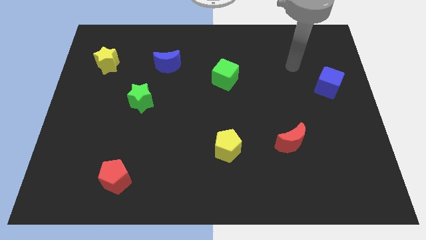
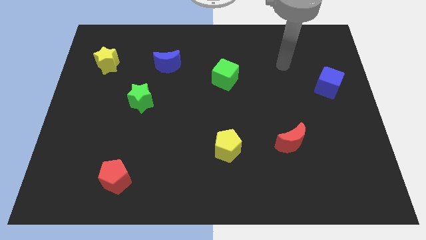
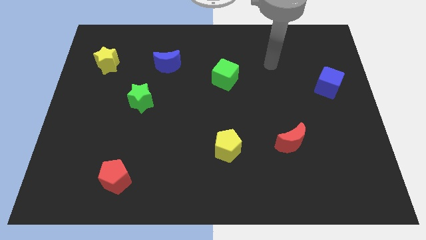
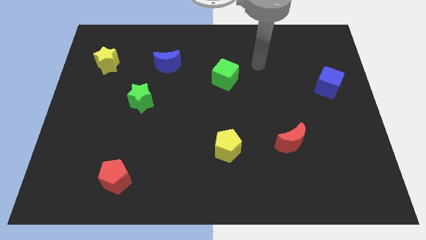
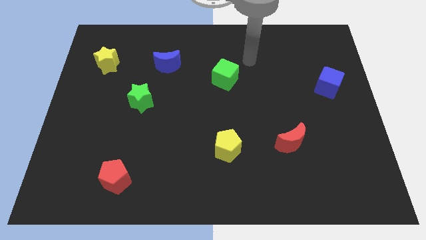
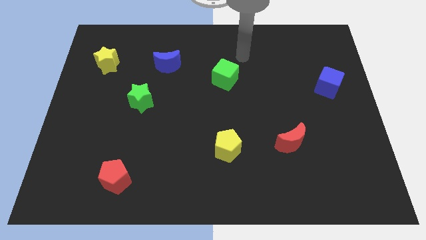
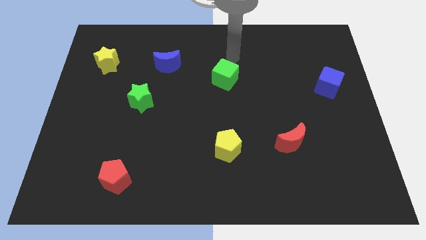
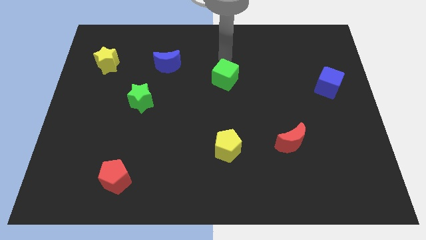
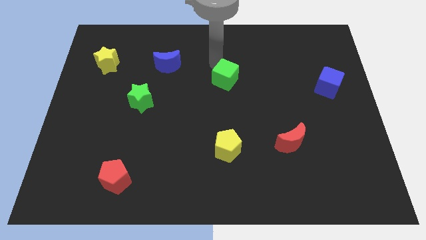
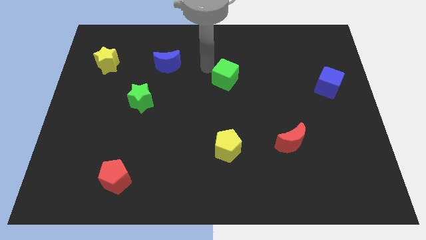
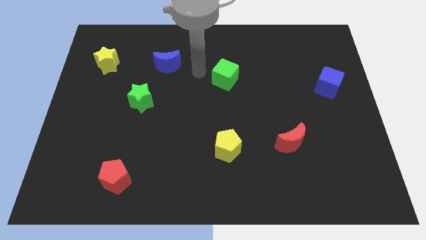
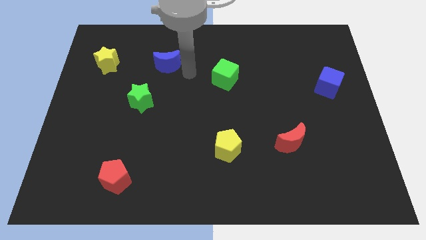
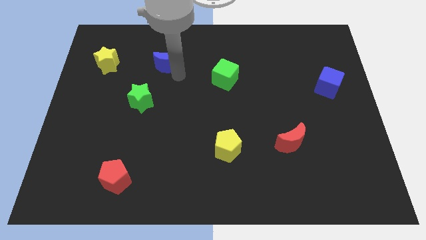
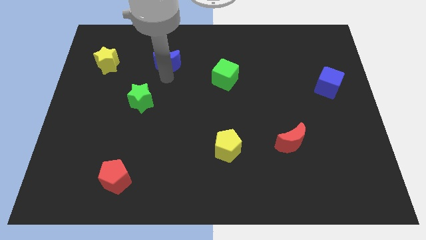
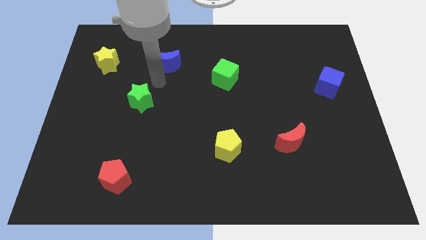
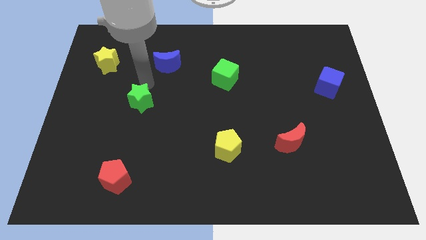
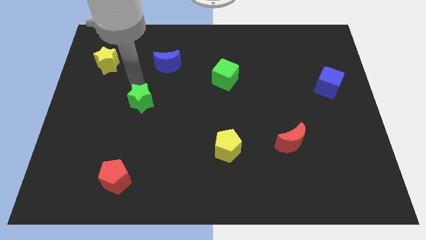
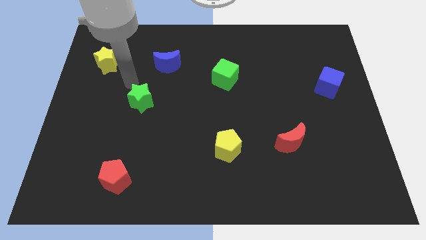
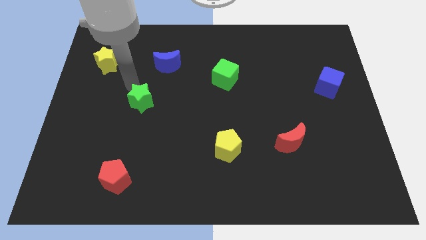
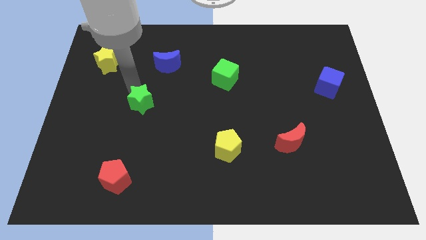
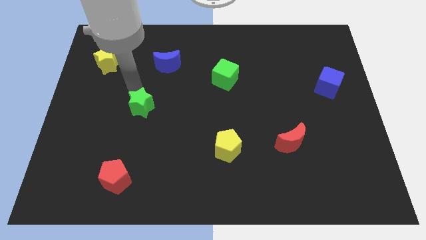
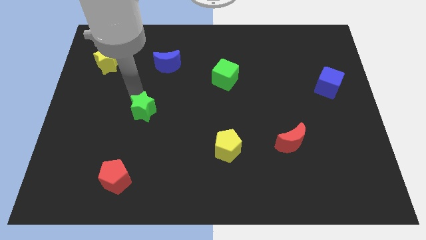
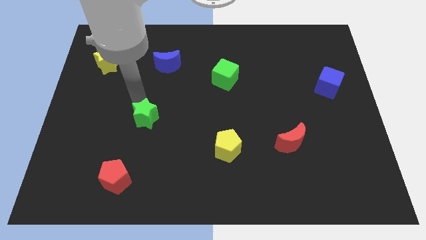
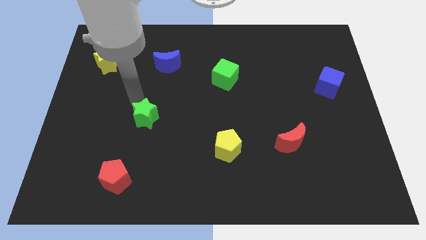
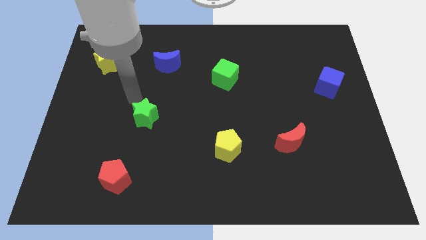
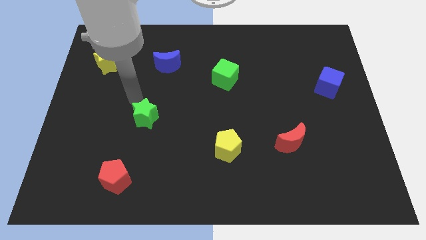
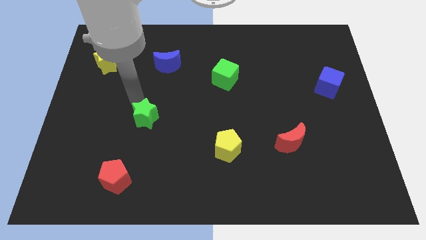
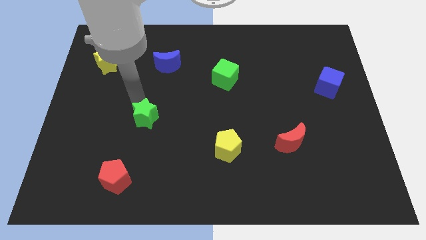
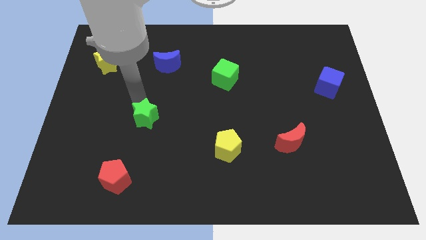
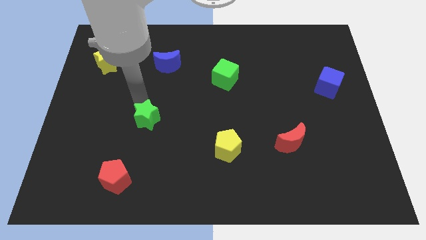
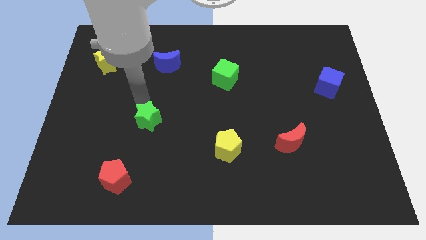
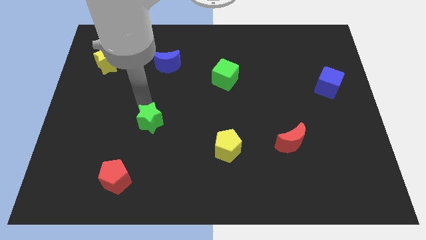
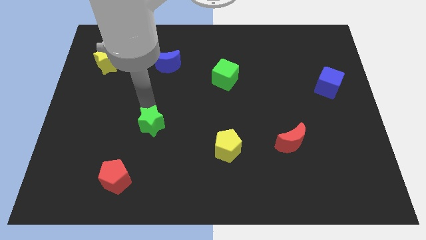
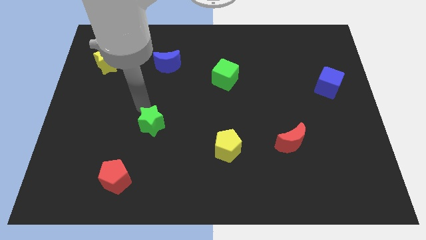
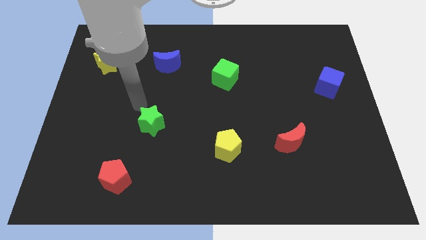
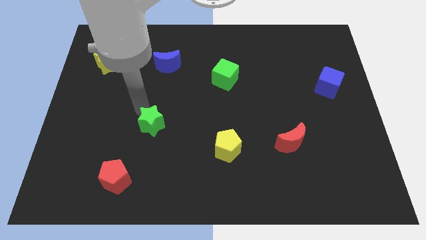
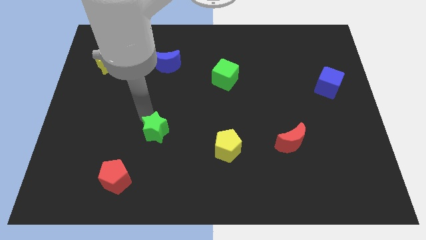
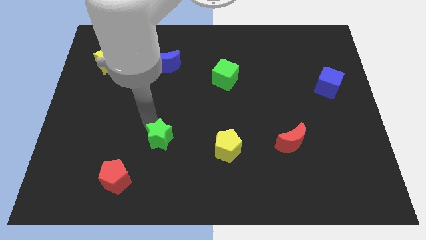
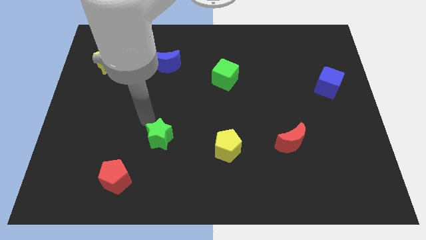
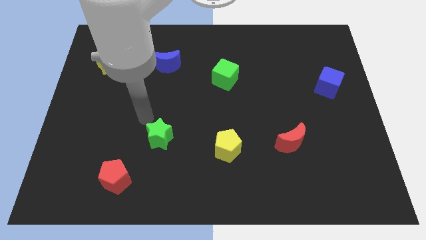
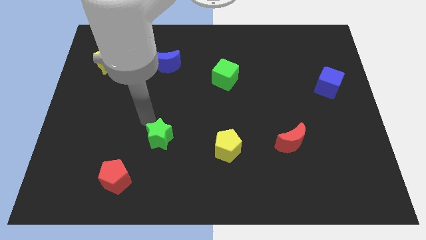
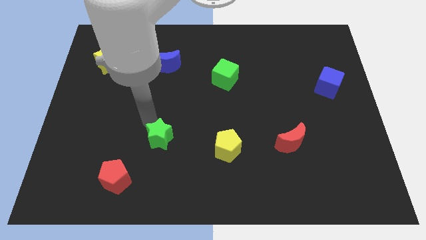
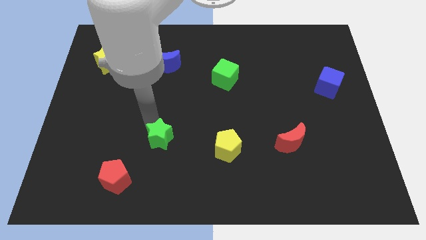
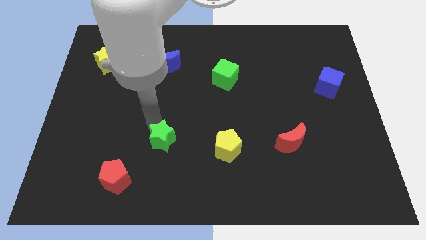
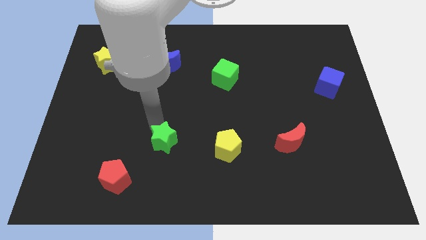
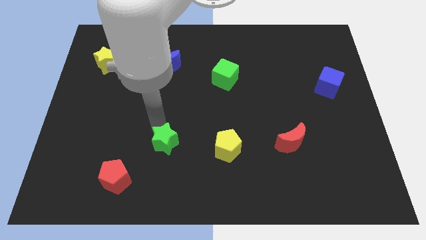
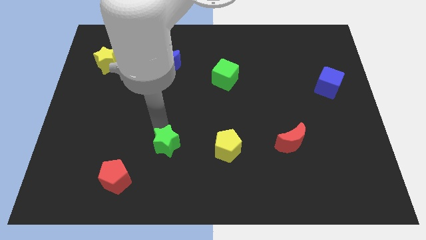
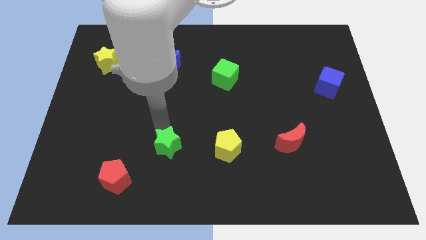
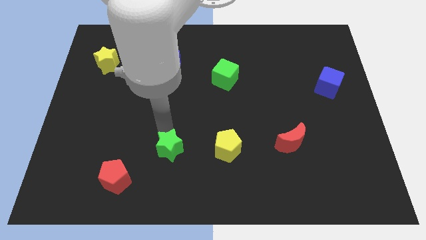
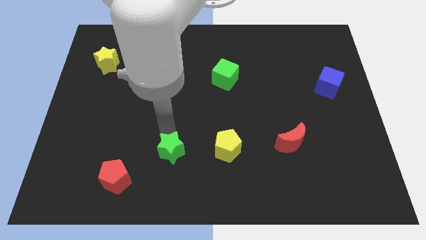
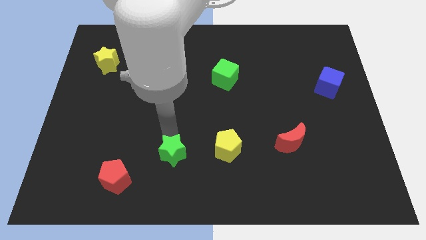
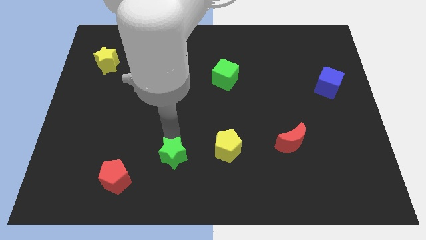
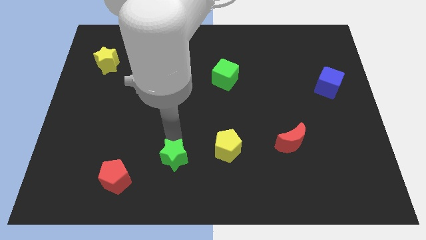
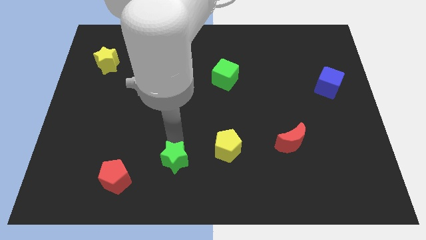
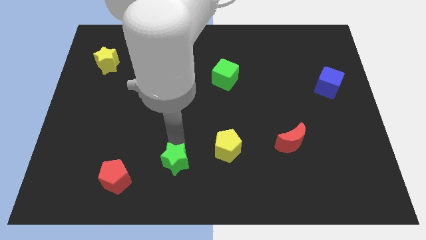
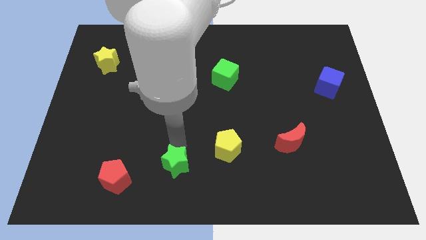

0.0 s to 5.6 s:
slide the green star to the bottom
